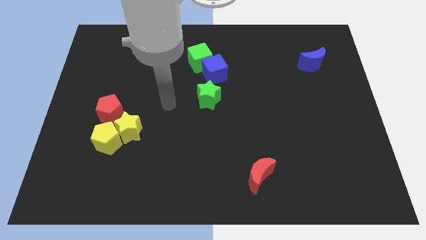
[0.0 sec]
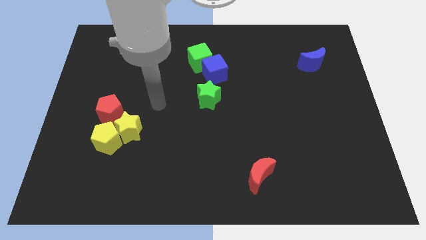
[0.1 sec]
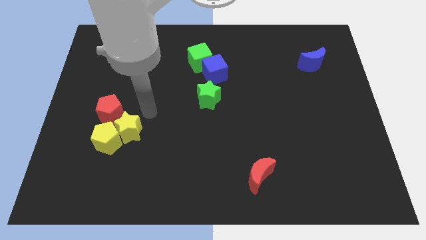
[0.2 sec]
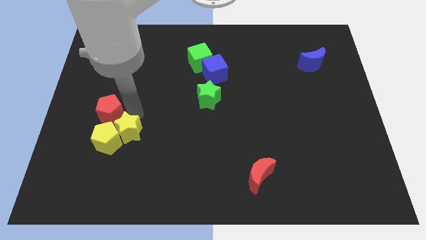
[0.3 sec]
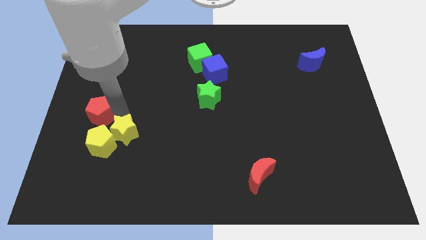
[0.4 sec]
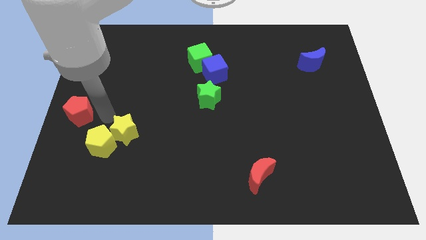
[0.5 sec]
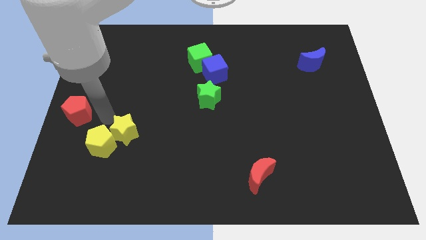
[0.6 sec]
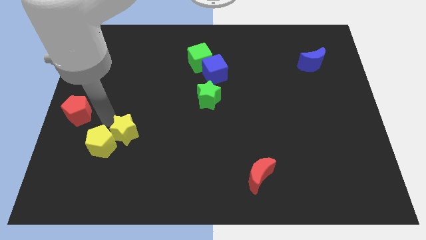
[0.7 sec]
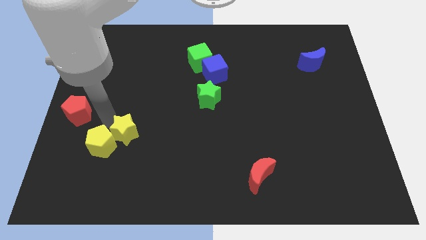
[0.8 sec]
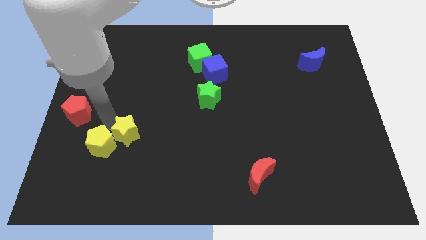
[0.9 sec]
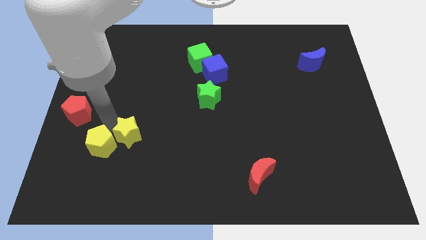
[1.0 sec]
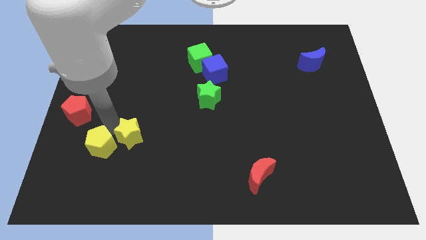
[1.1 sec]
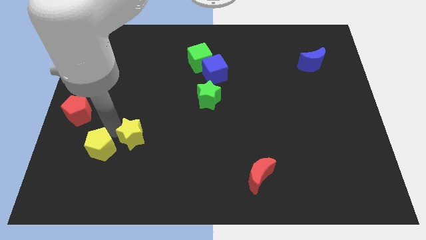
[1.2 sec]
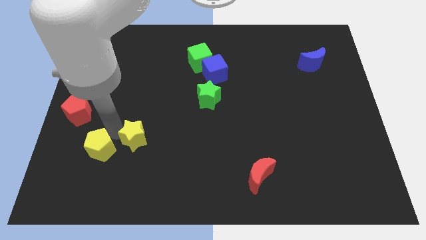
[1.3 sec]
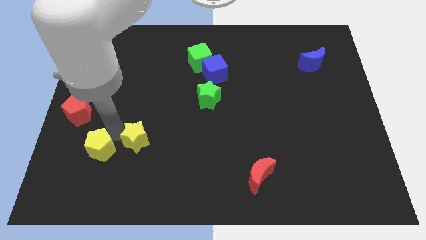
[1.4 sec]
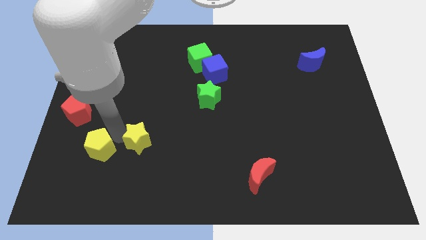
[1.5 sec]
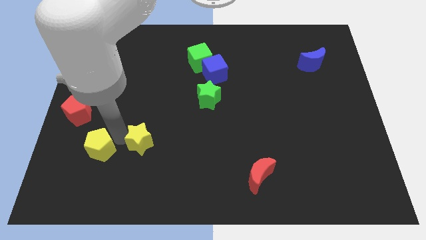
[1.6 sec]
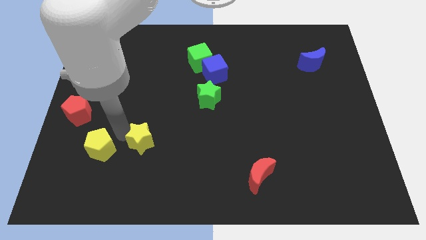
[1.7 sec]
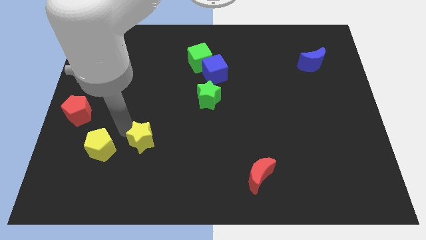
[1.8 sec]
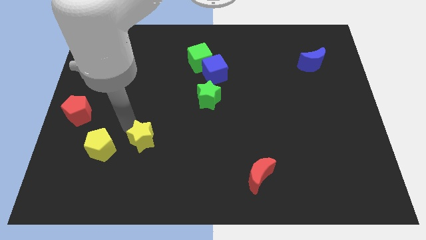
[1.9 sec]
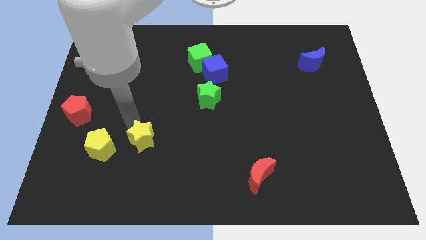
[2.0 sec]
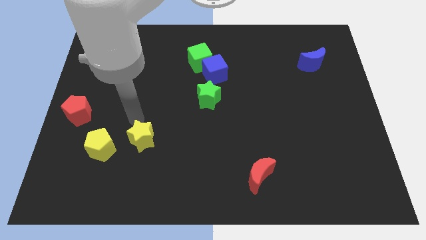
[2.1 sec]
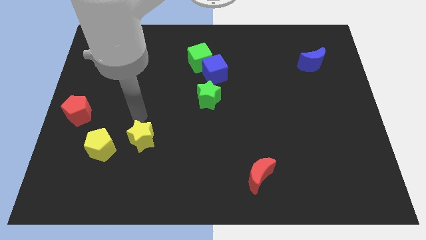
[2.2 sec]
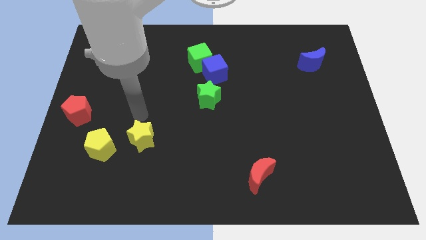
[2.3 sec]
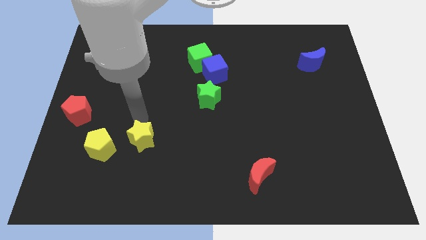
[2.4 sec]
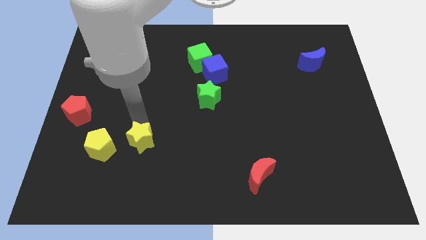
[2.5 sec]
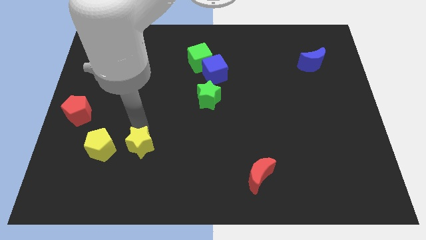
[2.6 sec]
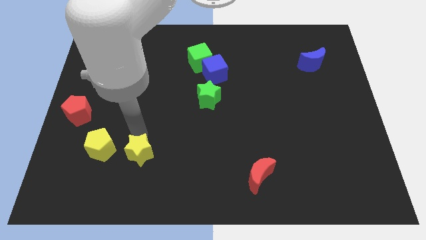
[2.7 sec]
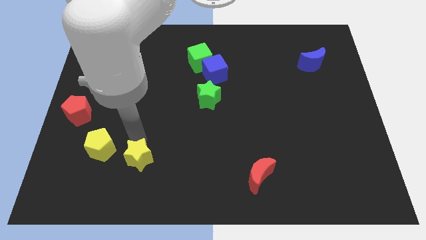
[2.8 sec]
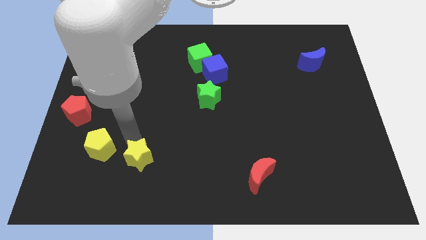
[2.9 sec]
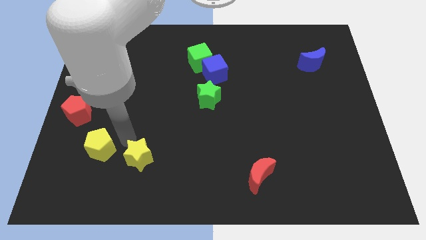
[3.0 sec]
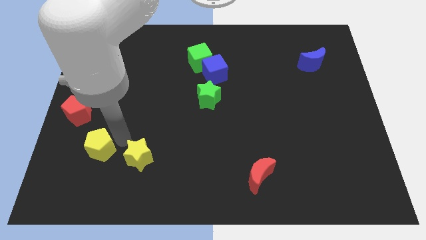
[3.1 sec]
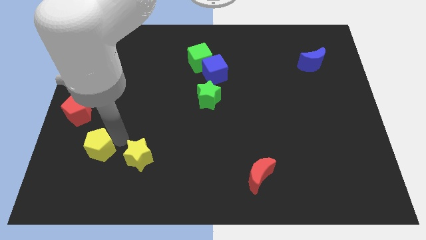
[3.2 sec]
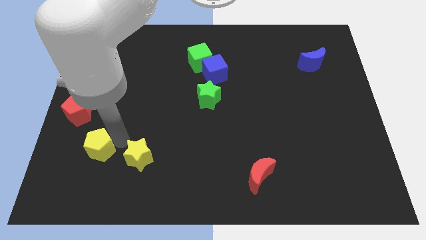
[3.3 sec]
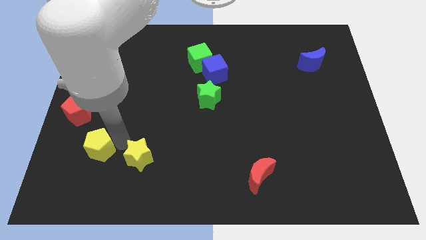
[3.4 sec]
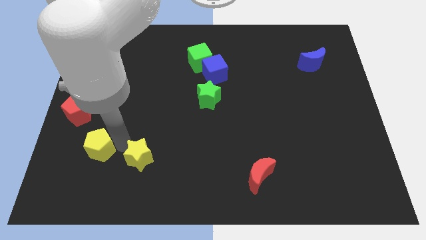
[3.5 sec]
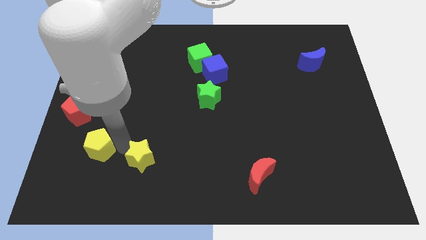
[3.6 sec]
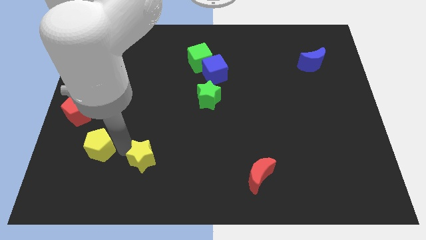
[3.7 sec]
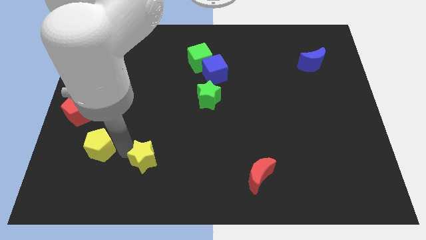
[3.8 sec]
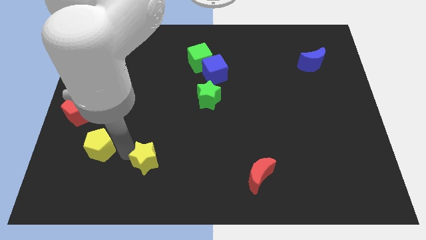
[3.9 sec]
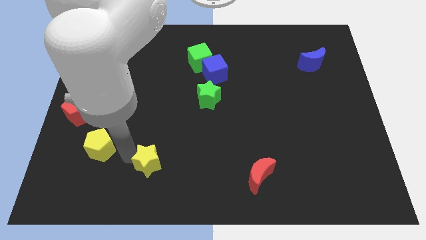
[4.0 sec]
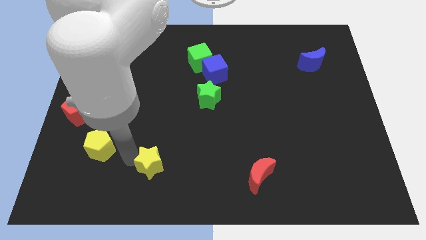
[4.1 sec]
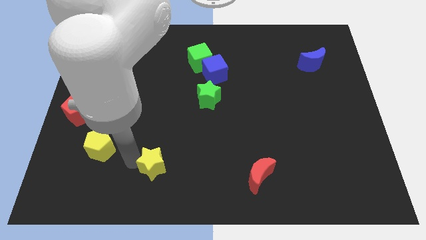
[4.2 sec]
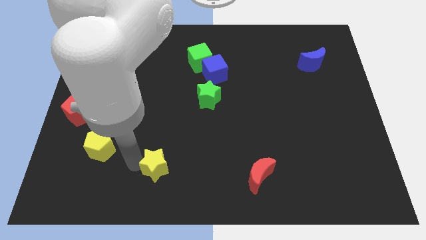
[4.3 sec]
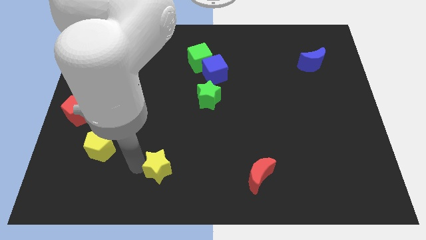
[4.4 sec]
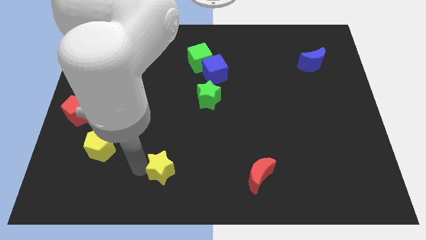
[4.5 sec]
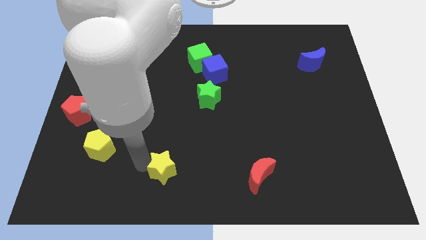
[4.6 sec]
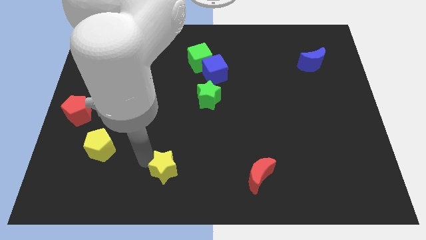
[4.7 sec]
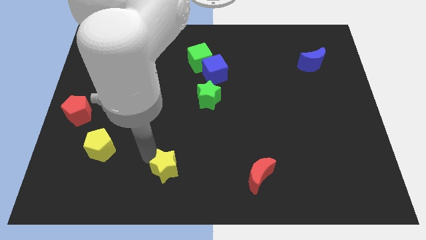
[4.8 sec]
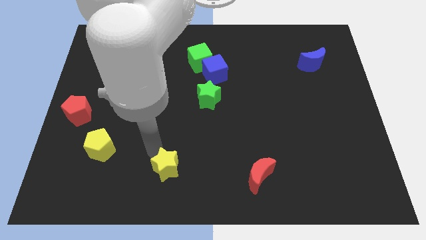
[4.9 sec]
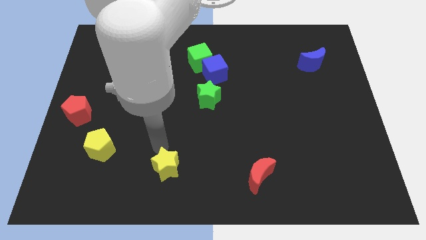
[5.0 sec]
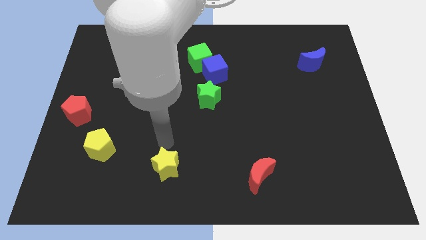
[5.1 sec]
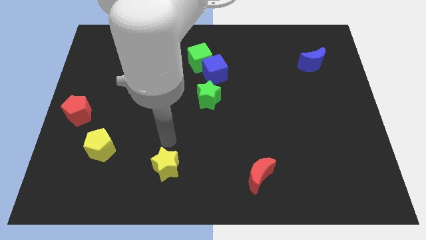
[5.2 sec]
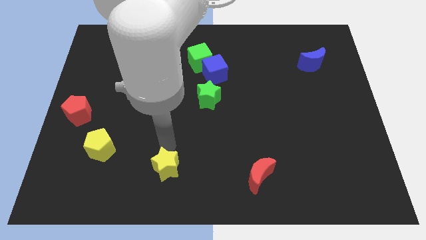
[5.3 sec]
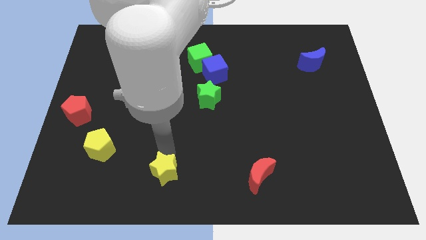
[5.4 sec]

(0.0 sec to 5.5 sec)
push the yellow star to the bottom

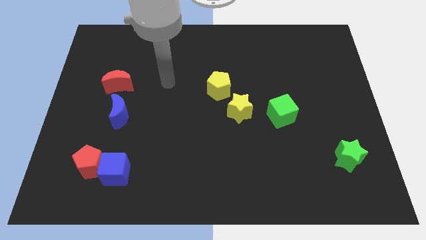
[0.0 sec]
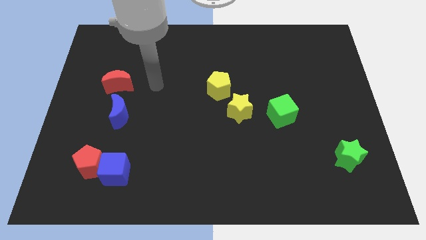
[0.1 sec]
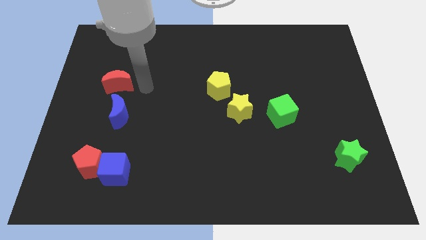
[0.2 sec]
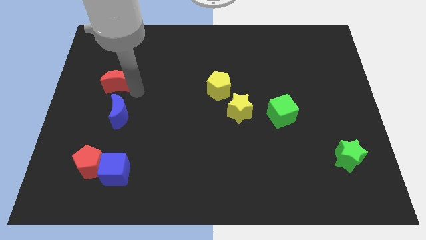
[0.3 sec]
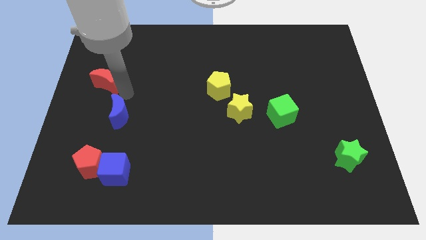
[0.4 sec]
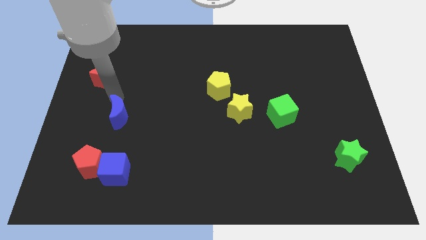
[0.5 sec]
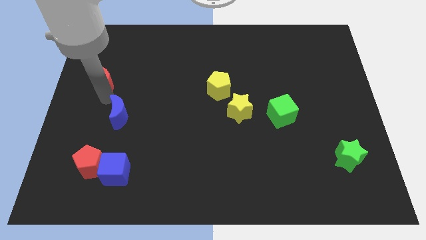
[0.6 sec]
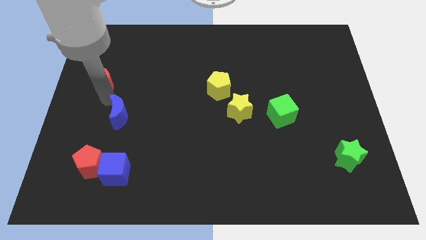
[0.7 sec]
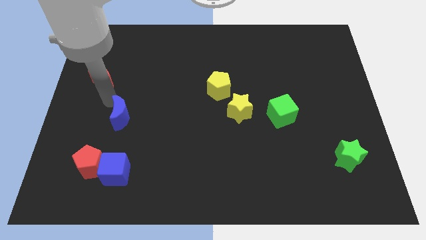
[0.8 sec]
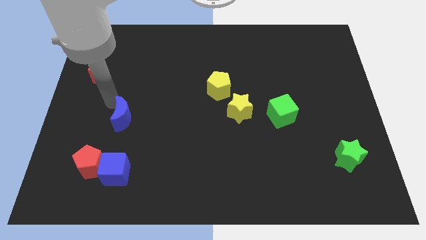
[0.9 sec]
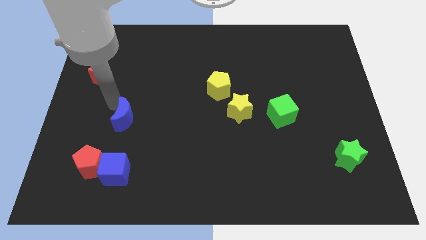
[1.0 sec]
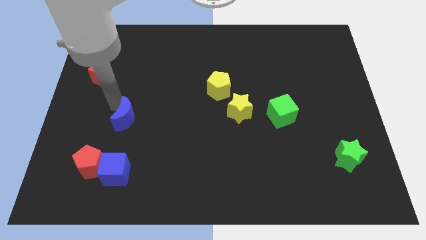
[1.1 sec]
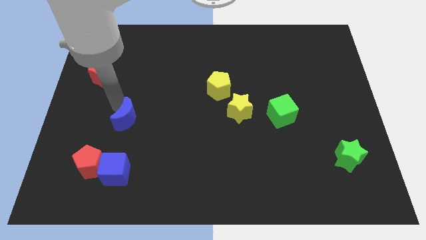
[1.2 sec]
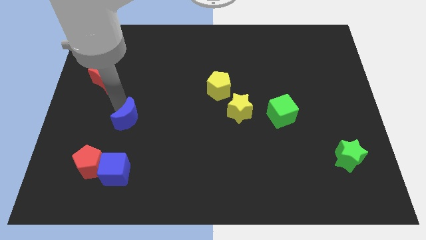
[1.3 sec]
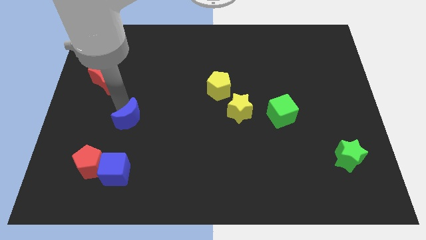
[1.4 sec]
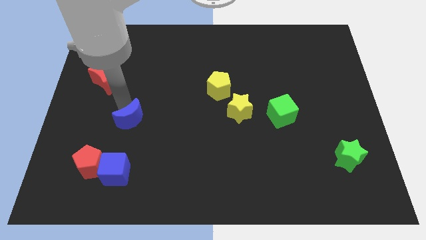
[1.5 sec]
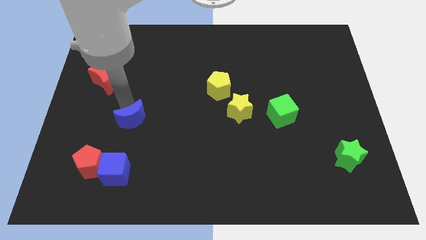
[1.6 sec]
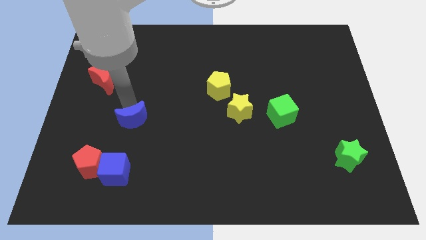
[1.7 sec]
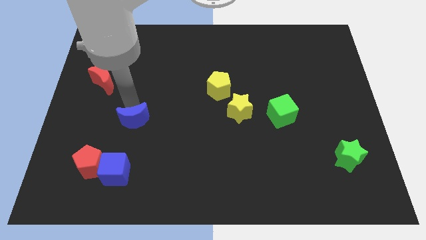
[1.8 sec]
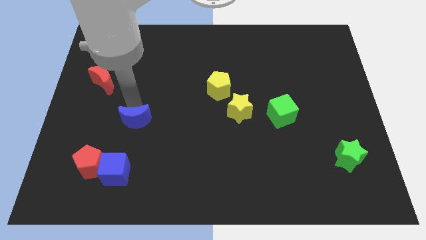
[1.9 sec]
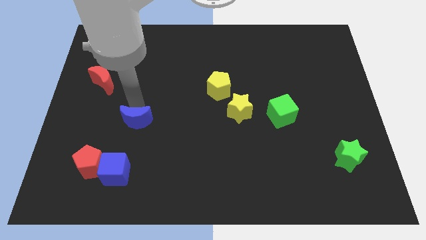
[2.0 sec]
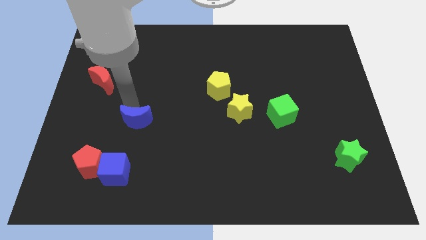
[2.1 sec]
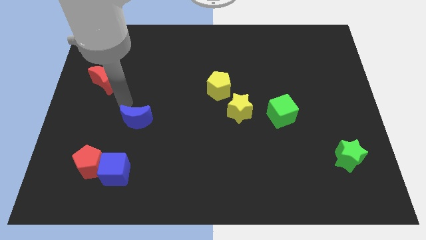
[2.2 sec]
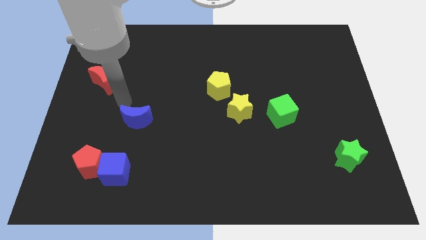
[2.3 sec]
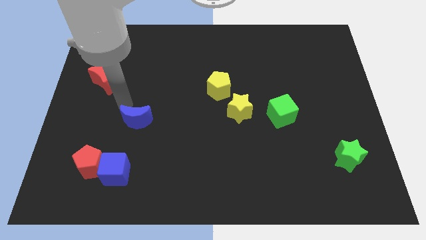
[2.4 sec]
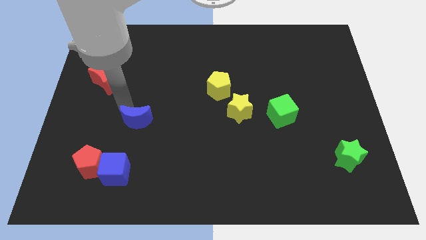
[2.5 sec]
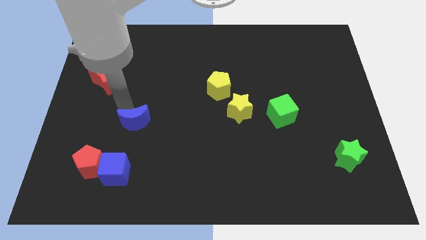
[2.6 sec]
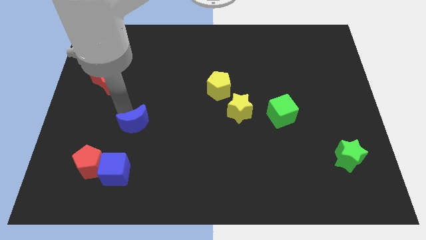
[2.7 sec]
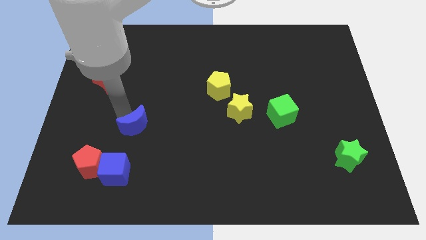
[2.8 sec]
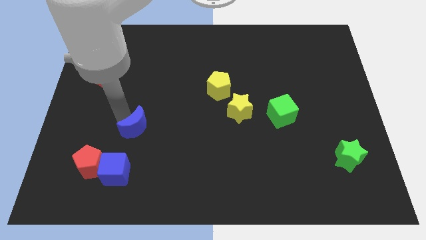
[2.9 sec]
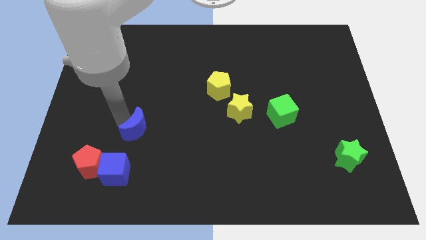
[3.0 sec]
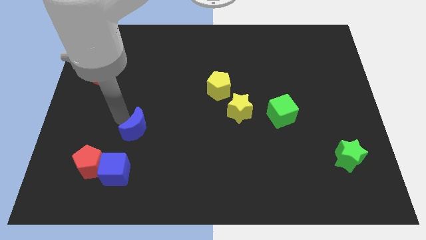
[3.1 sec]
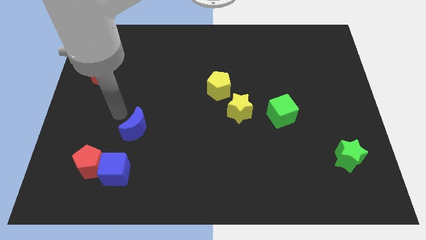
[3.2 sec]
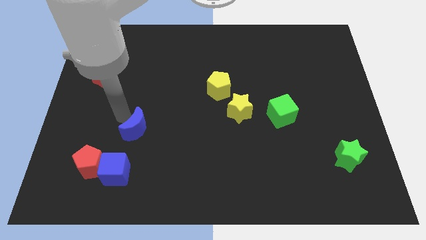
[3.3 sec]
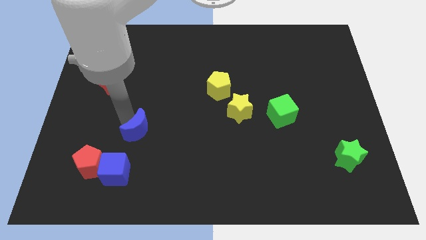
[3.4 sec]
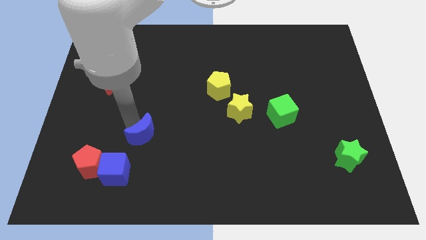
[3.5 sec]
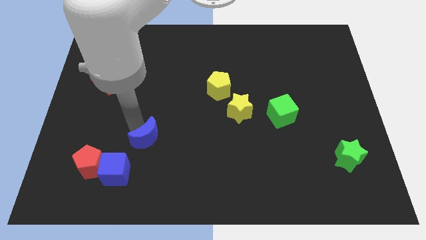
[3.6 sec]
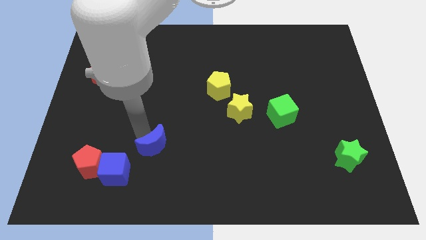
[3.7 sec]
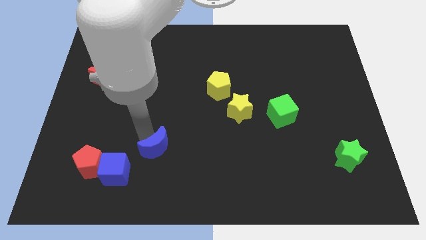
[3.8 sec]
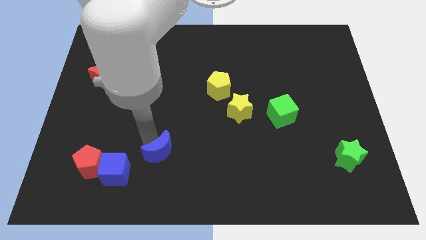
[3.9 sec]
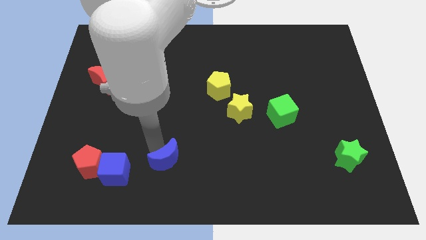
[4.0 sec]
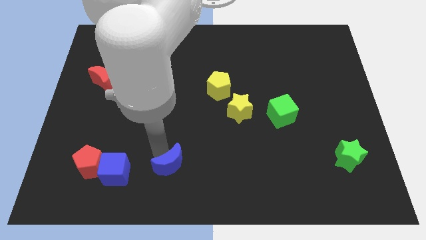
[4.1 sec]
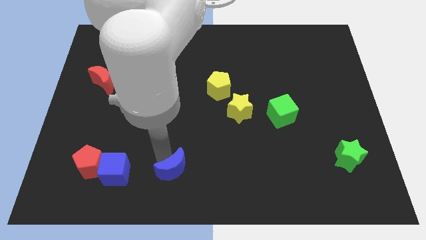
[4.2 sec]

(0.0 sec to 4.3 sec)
move the blue moon to the bottom side
